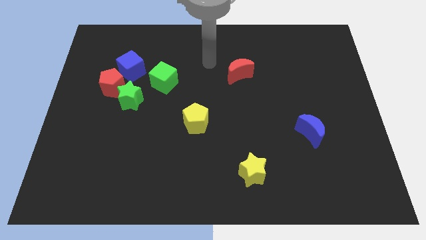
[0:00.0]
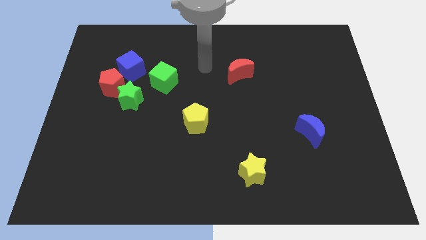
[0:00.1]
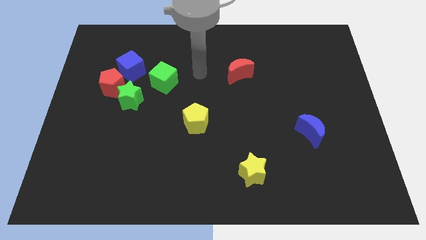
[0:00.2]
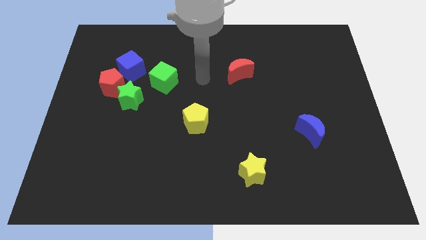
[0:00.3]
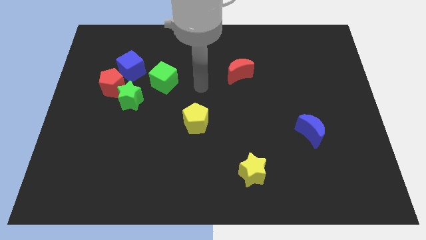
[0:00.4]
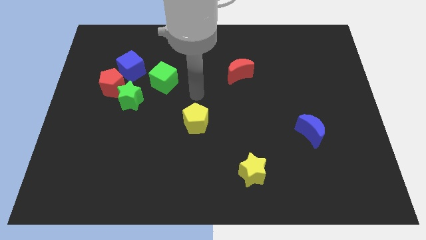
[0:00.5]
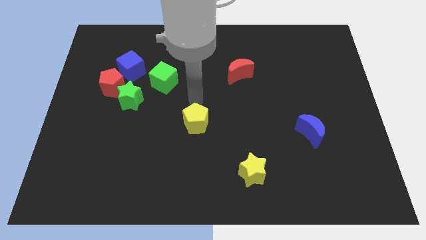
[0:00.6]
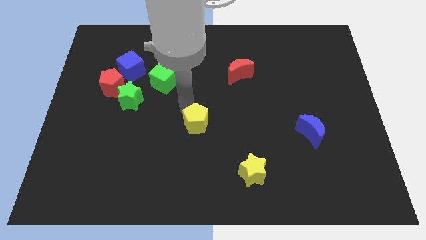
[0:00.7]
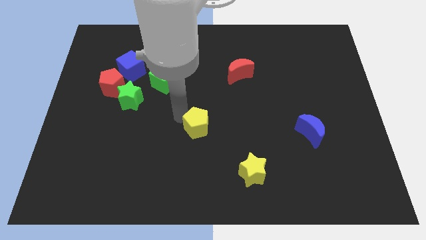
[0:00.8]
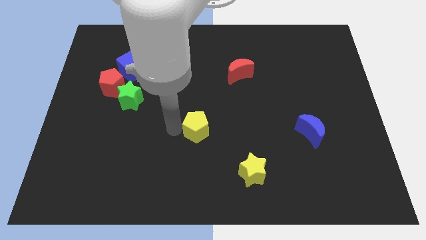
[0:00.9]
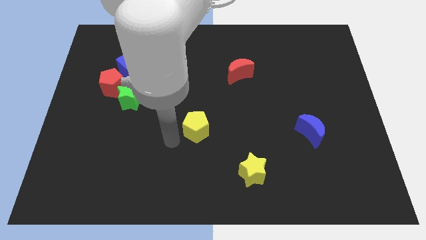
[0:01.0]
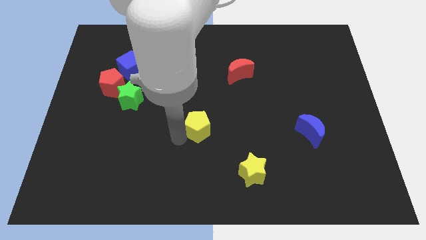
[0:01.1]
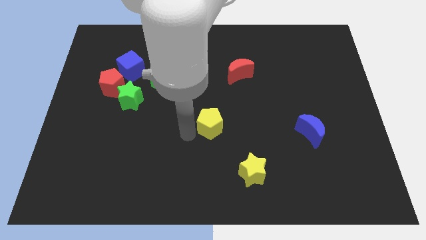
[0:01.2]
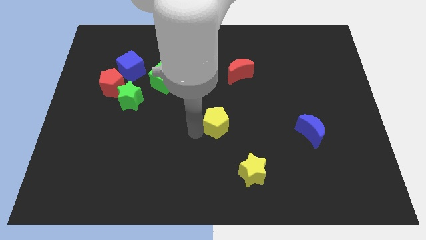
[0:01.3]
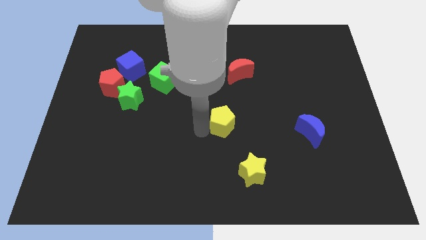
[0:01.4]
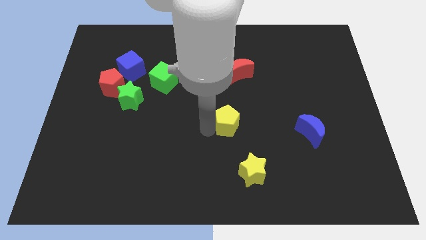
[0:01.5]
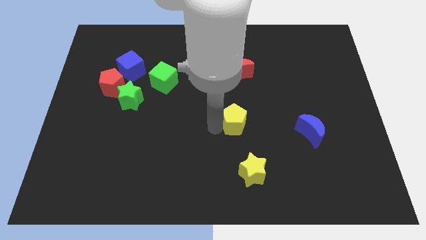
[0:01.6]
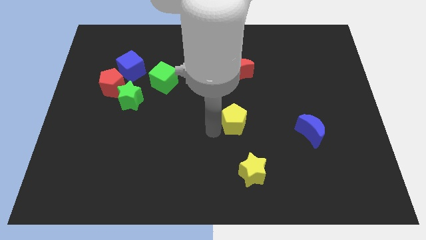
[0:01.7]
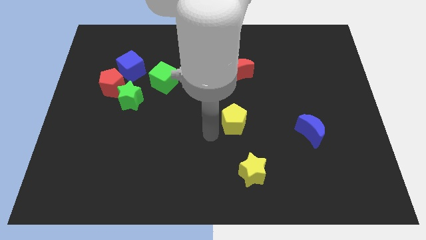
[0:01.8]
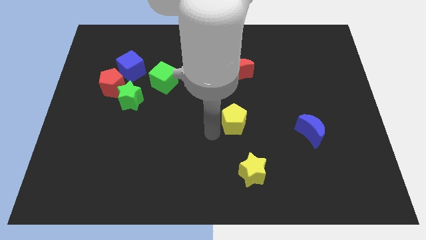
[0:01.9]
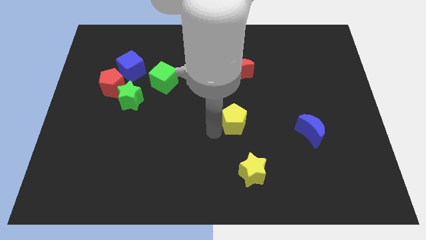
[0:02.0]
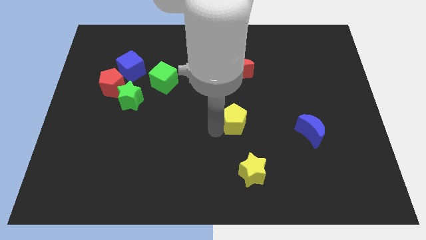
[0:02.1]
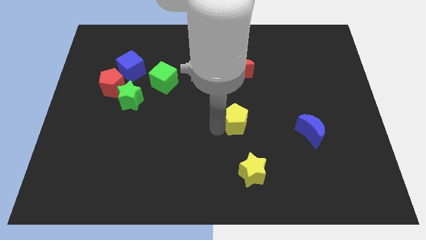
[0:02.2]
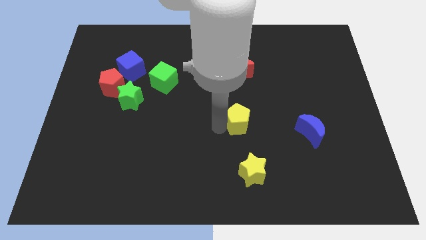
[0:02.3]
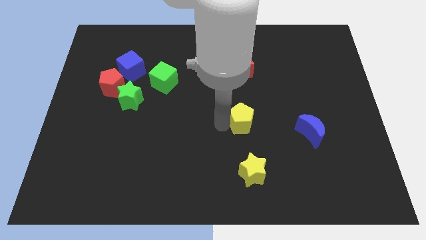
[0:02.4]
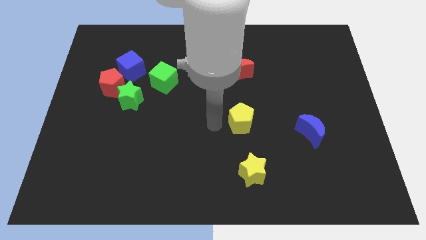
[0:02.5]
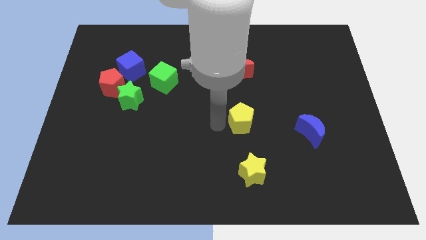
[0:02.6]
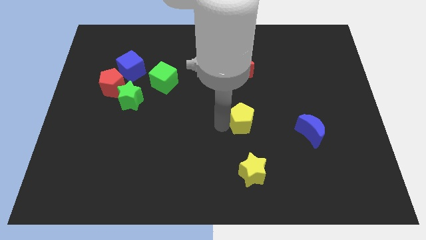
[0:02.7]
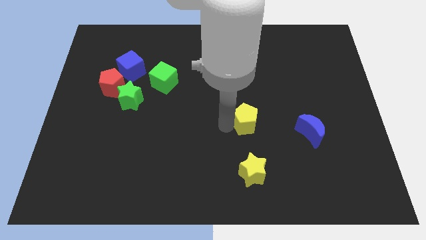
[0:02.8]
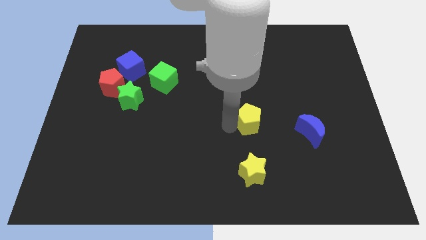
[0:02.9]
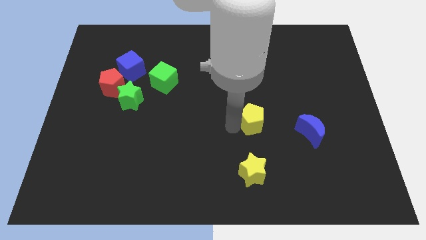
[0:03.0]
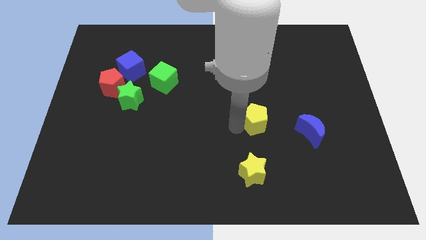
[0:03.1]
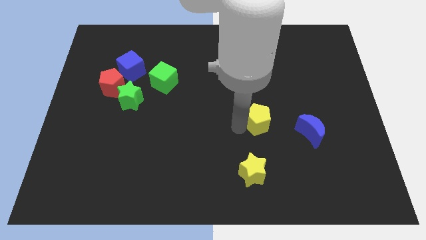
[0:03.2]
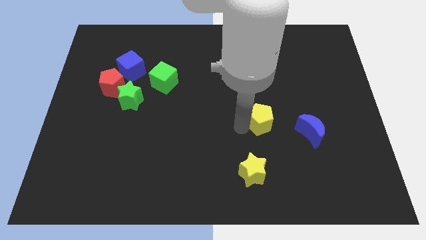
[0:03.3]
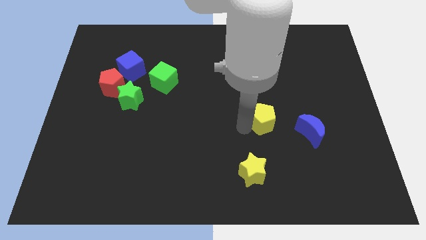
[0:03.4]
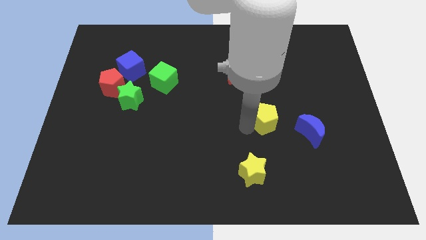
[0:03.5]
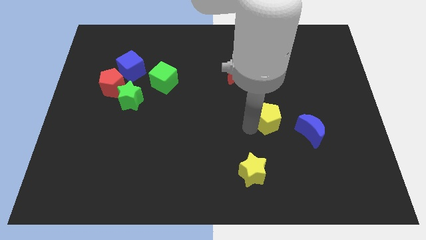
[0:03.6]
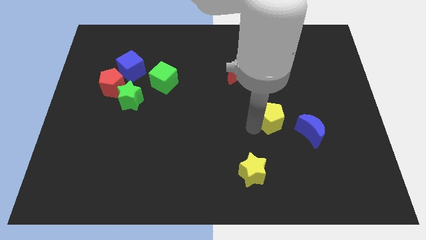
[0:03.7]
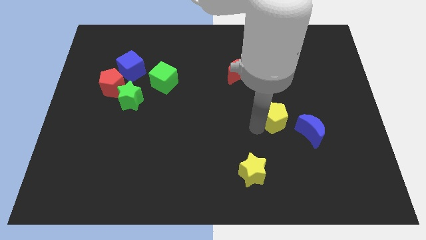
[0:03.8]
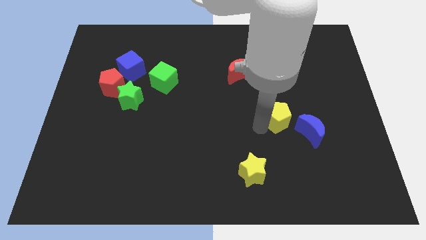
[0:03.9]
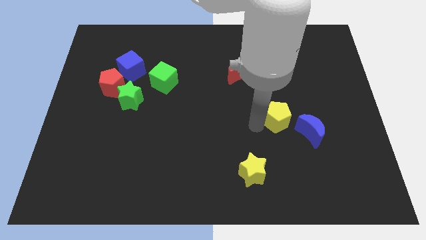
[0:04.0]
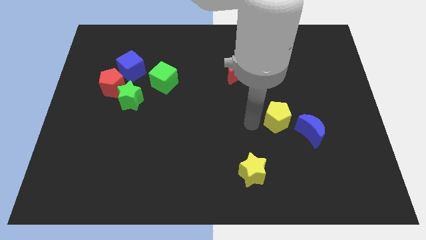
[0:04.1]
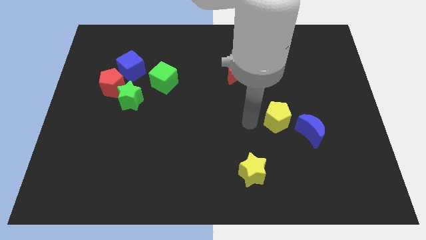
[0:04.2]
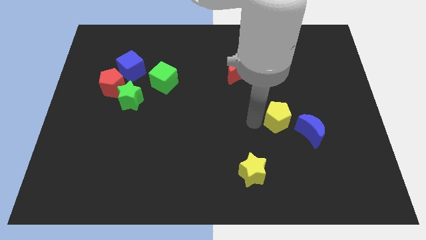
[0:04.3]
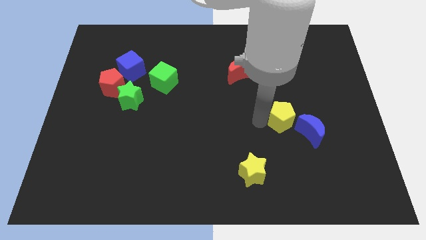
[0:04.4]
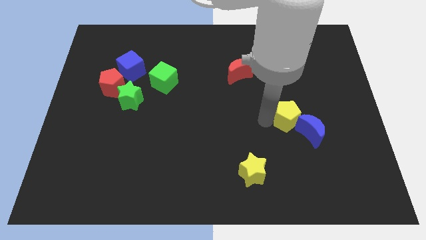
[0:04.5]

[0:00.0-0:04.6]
slide the yellow pentagon right

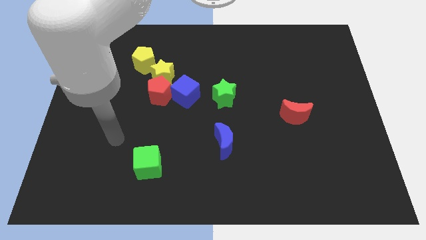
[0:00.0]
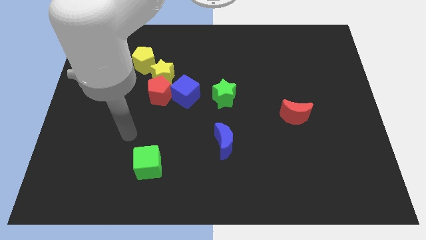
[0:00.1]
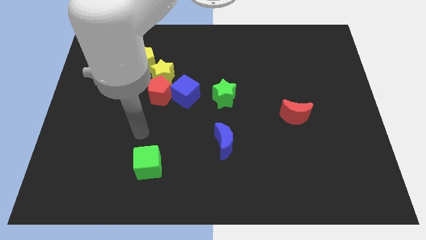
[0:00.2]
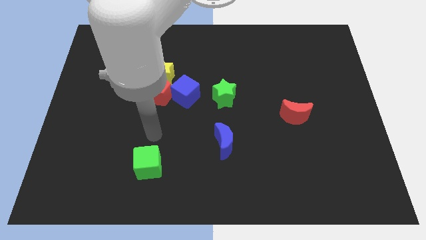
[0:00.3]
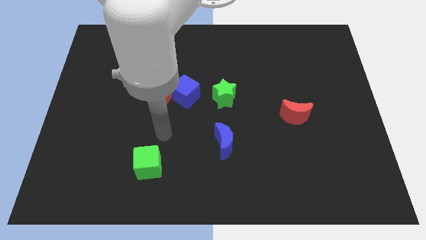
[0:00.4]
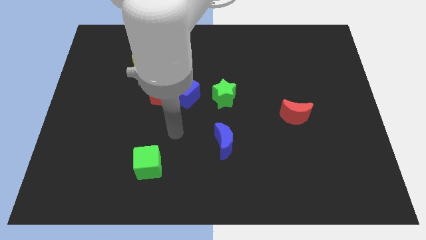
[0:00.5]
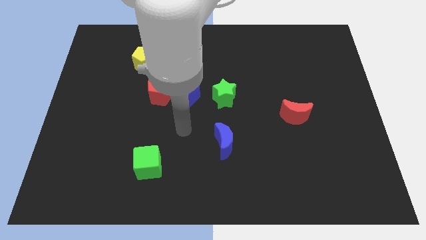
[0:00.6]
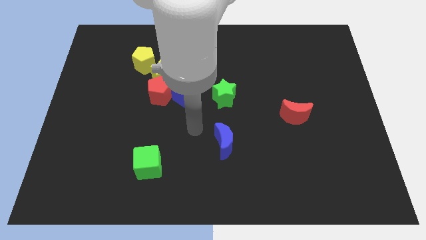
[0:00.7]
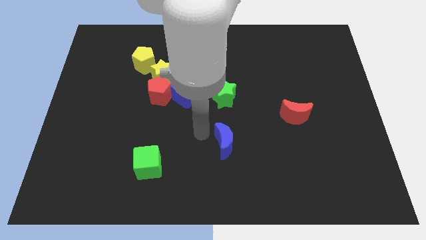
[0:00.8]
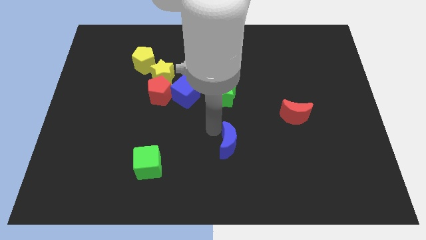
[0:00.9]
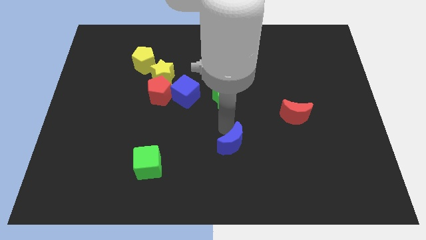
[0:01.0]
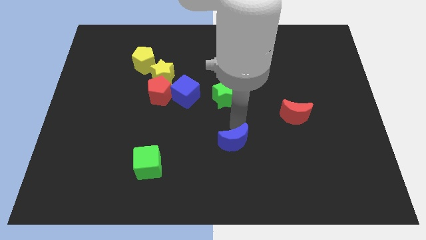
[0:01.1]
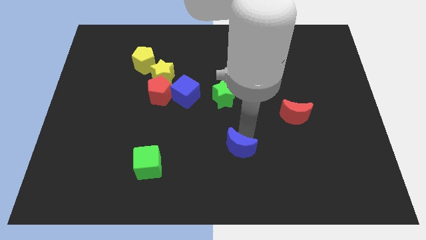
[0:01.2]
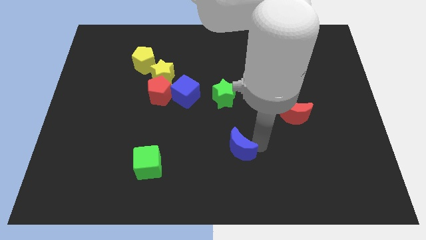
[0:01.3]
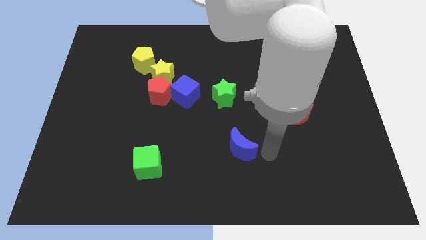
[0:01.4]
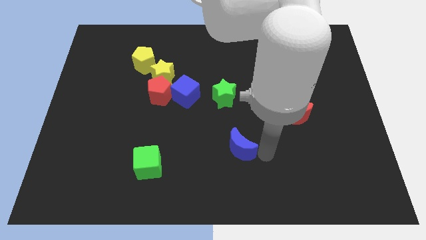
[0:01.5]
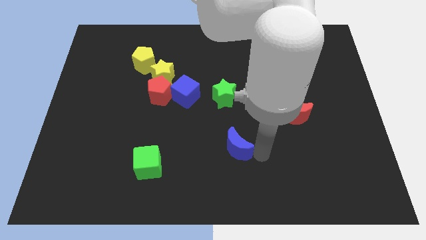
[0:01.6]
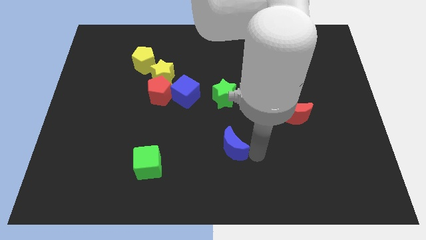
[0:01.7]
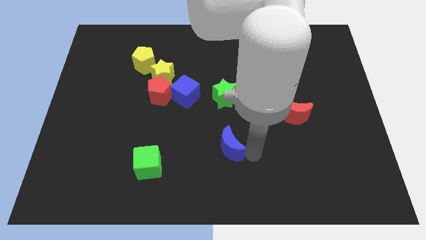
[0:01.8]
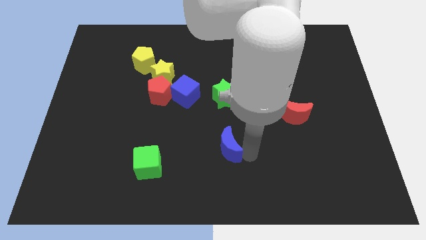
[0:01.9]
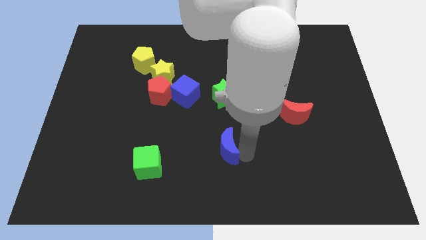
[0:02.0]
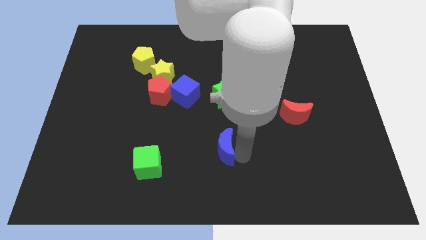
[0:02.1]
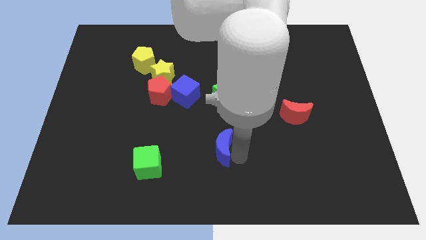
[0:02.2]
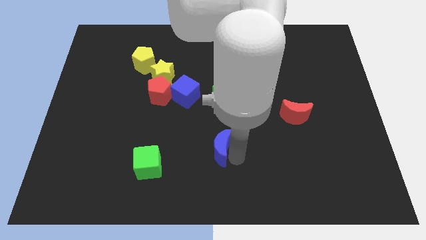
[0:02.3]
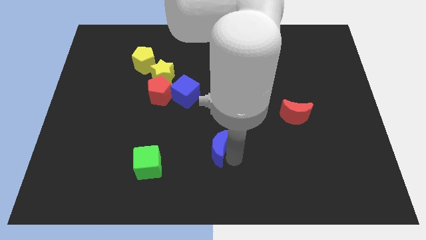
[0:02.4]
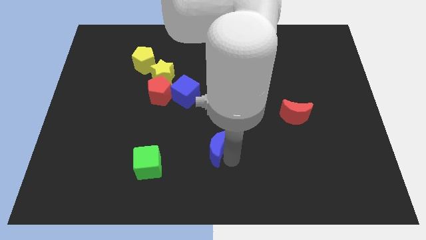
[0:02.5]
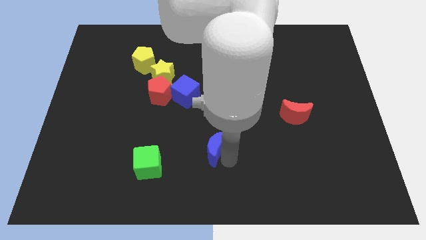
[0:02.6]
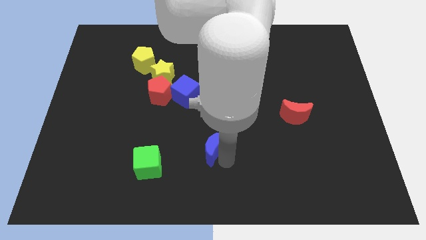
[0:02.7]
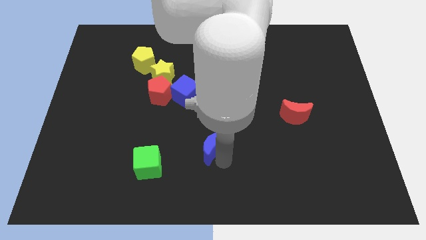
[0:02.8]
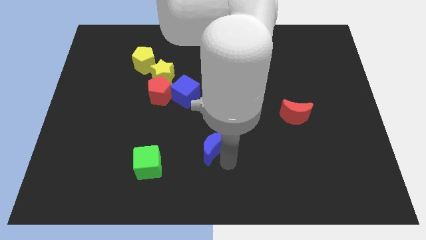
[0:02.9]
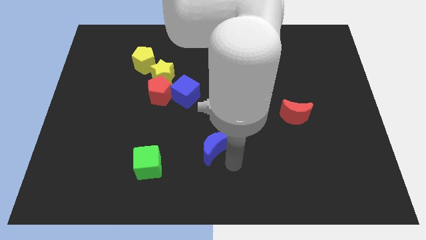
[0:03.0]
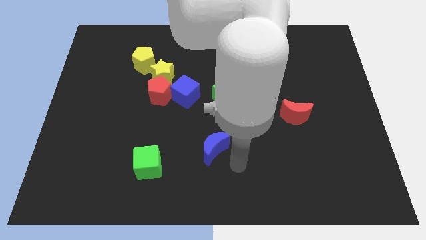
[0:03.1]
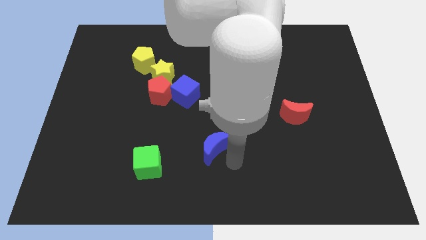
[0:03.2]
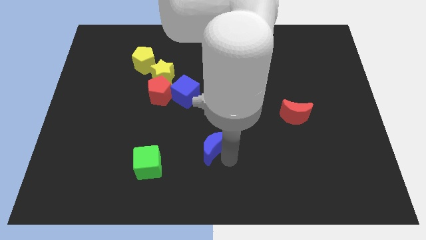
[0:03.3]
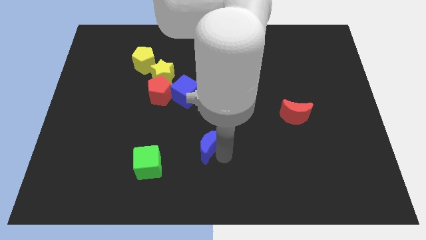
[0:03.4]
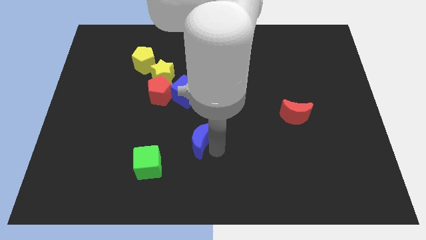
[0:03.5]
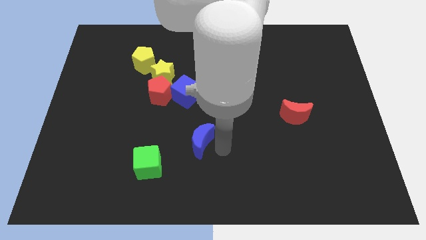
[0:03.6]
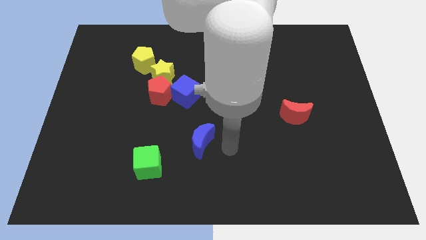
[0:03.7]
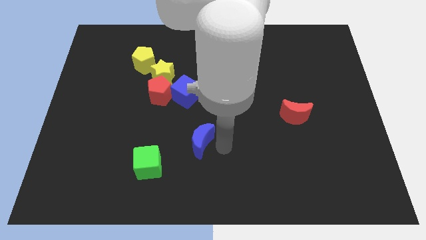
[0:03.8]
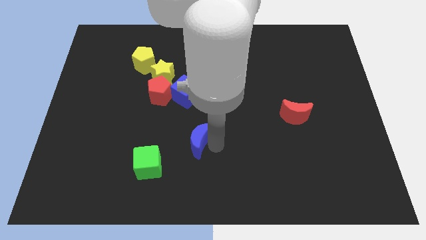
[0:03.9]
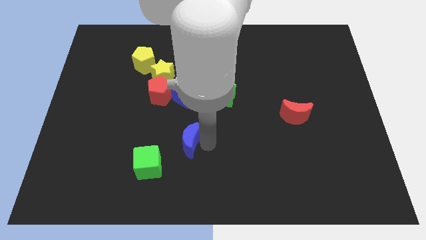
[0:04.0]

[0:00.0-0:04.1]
slide the blue moon a little bit left
